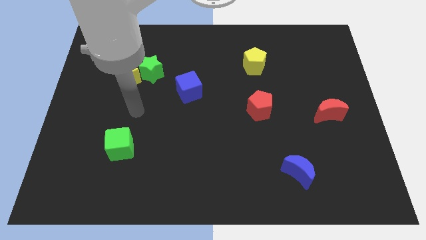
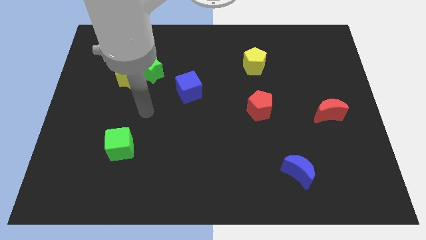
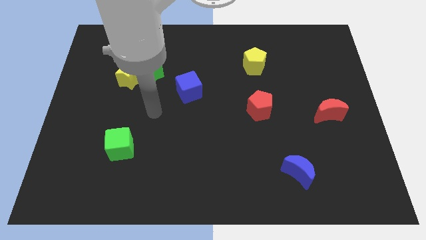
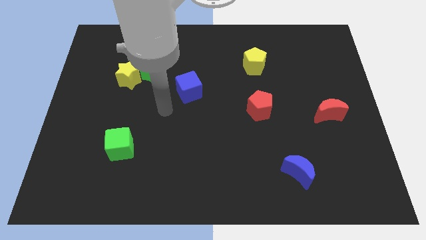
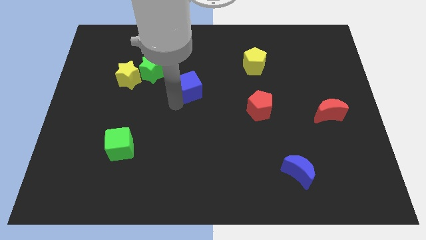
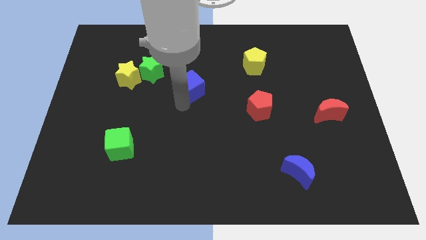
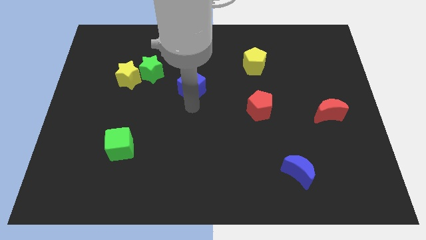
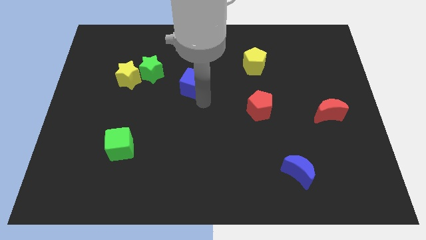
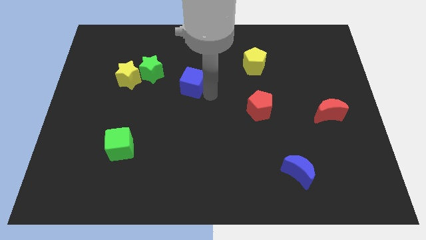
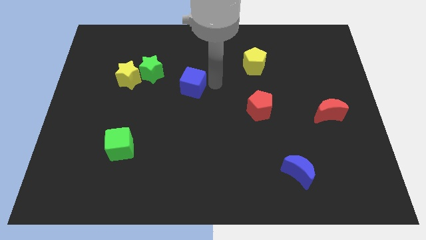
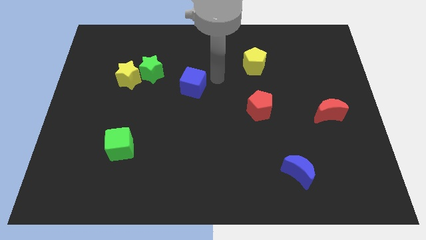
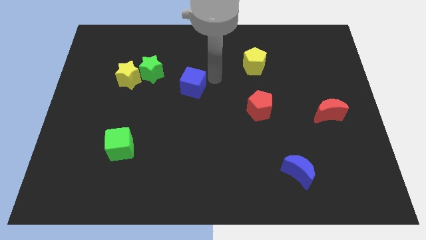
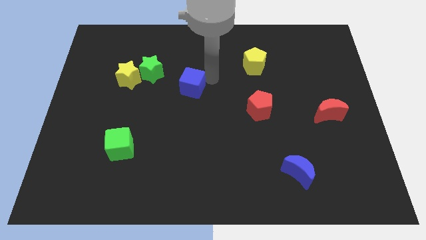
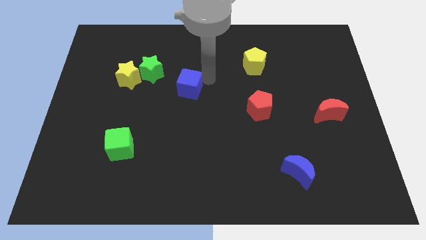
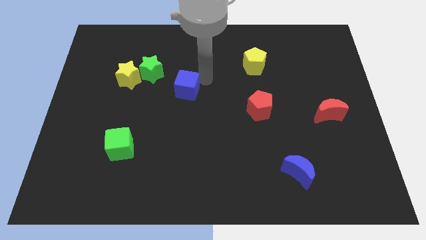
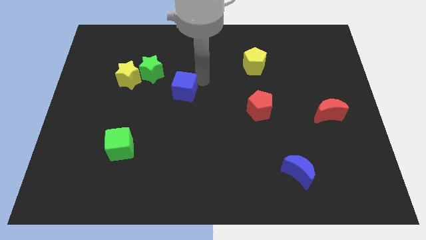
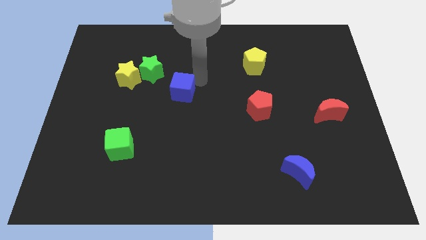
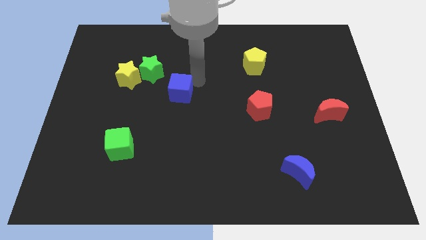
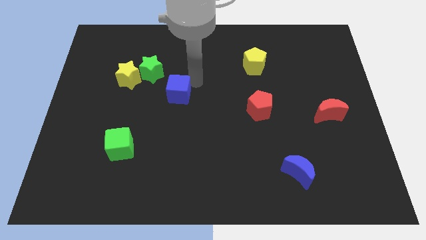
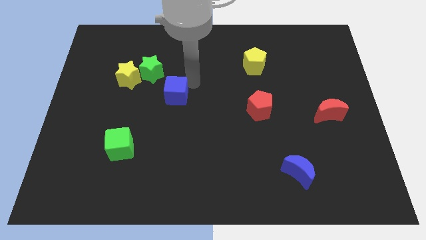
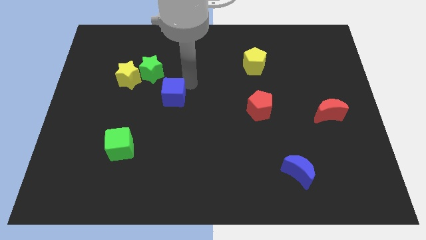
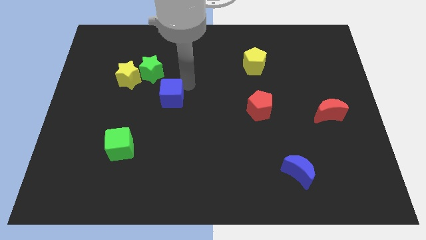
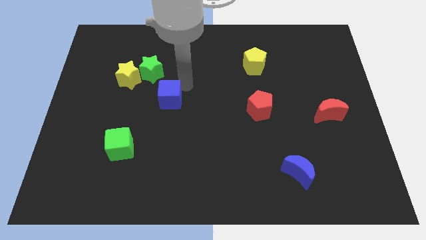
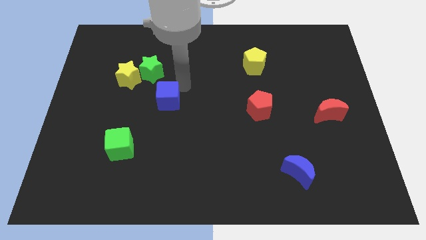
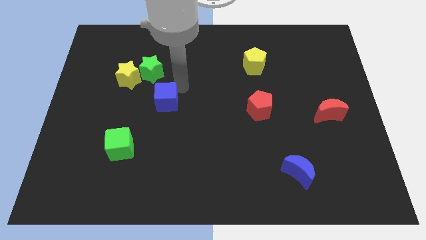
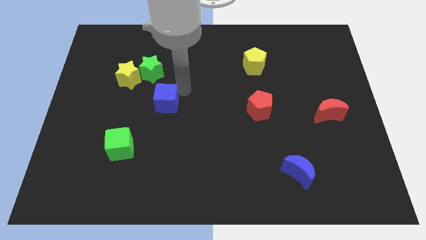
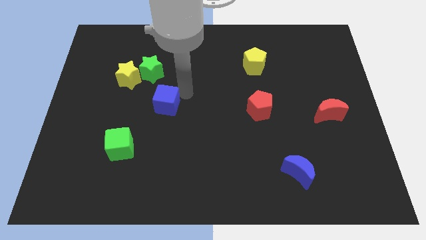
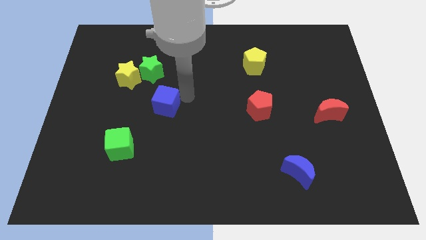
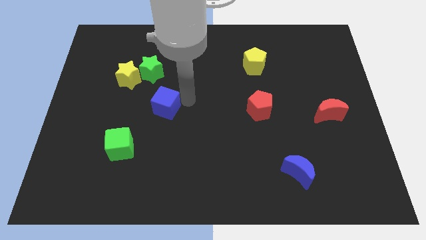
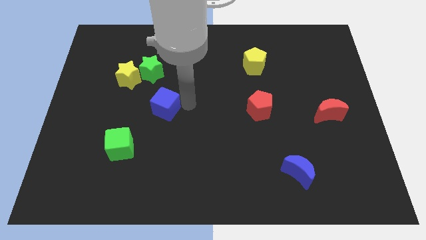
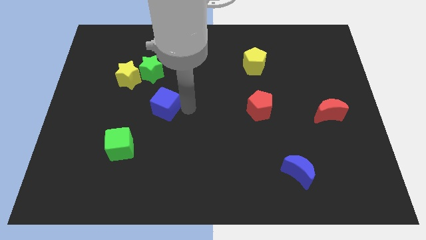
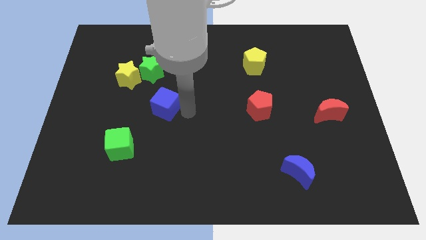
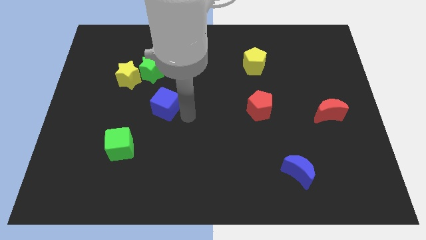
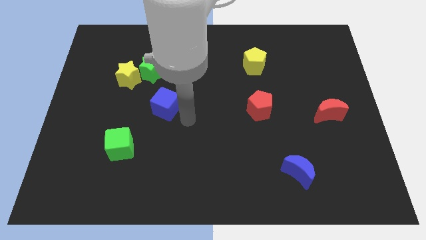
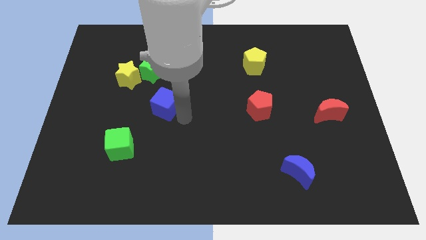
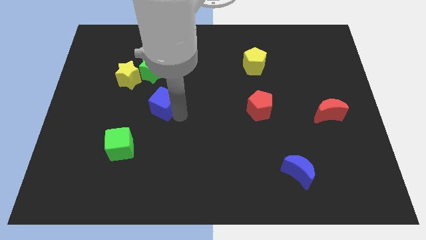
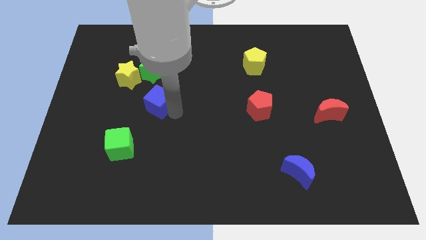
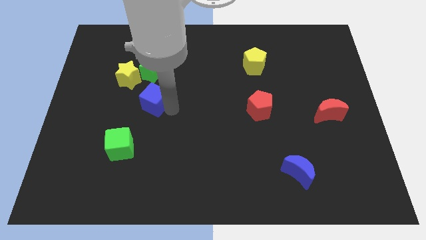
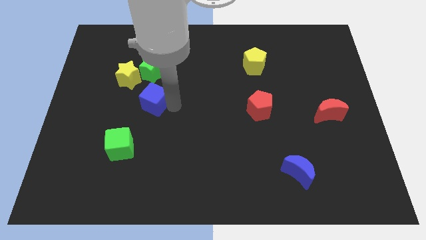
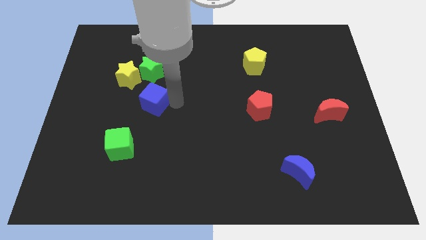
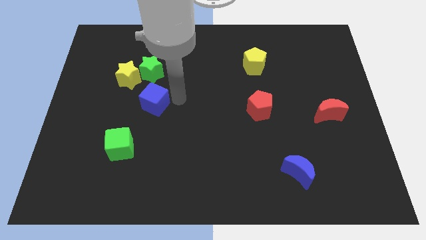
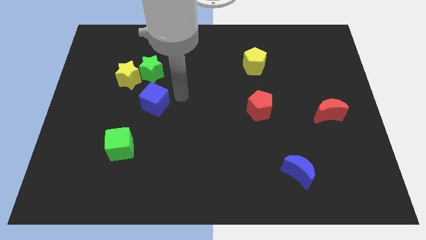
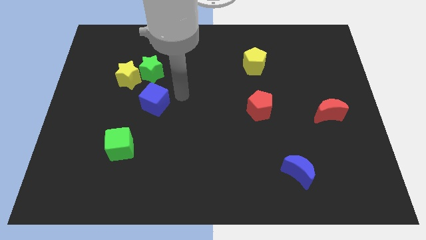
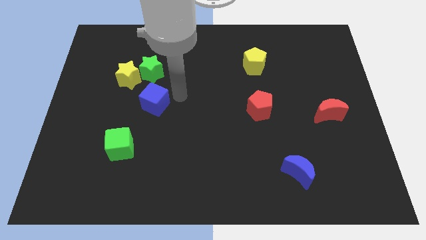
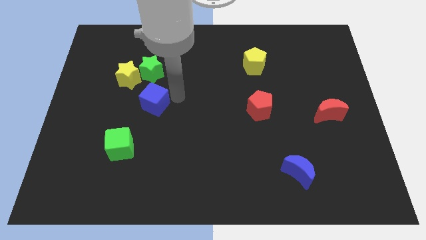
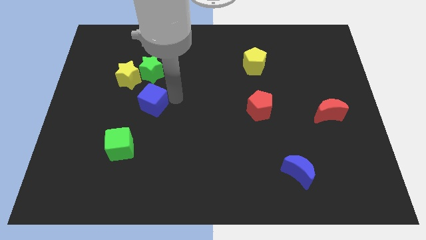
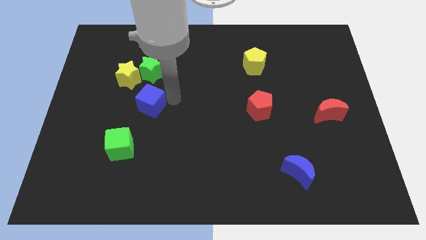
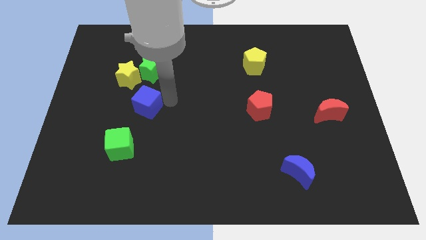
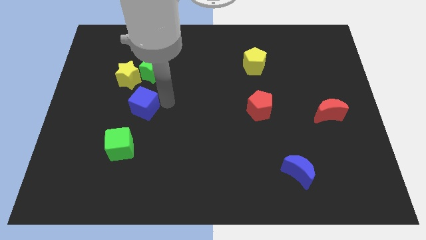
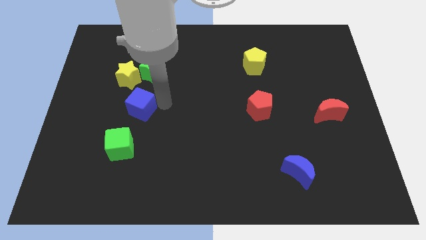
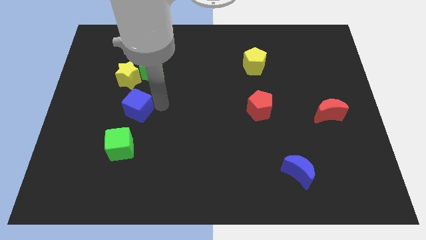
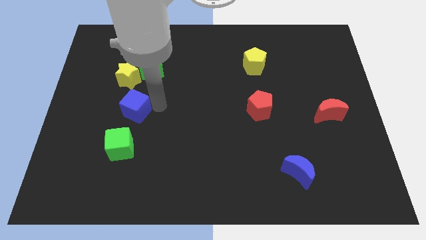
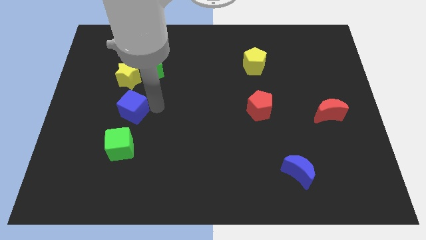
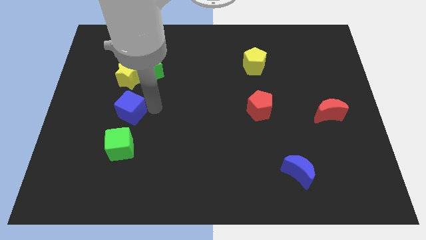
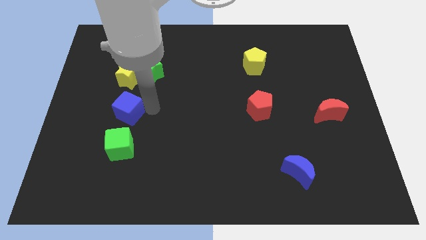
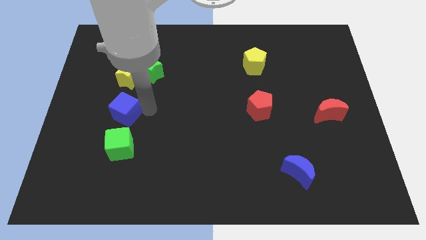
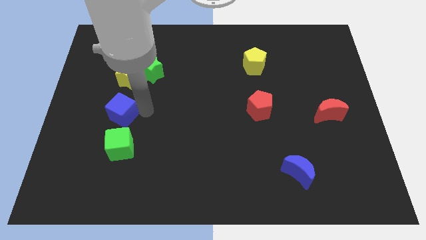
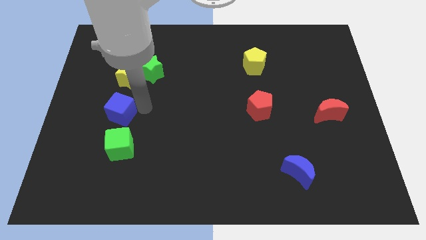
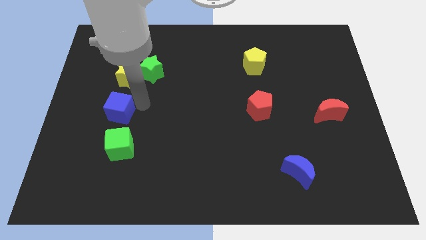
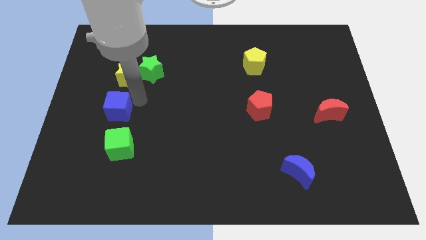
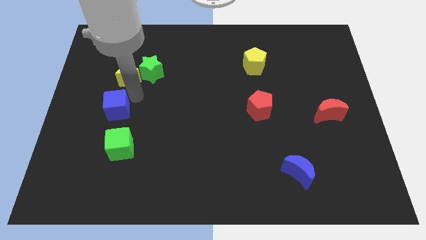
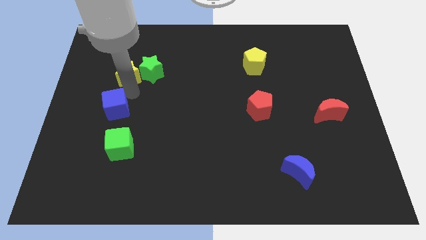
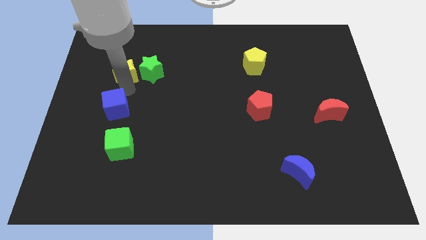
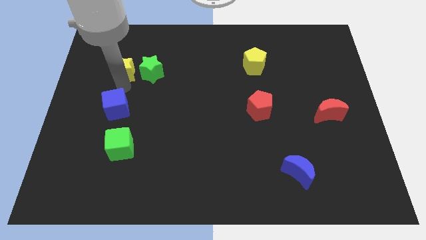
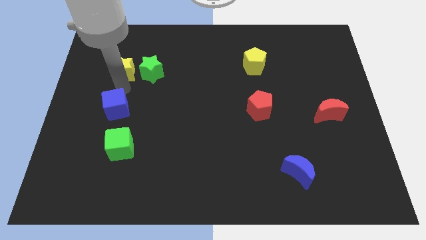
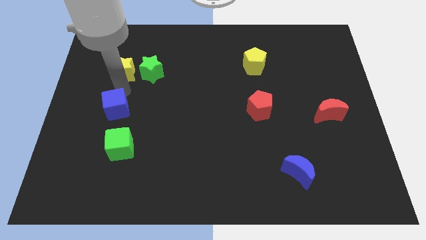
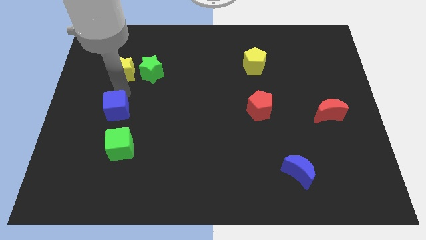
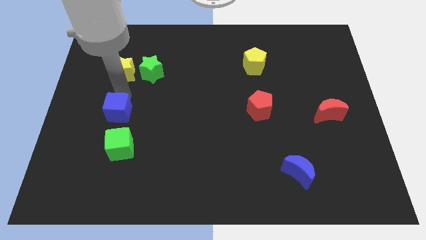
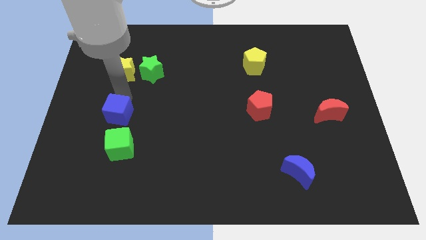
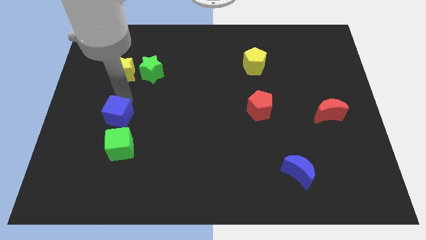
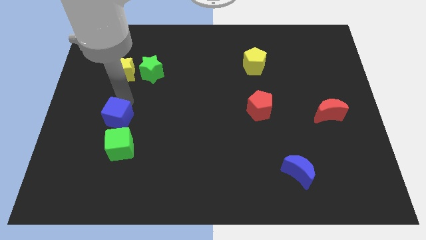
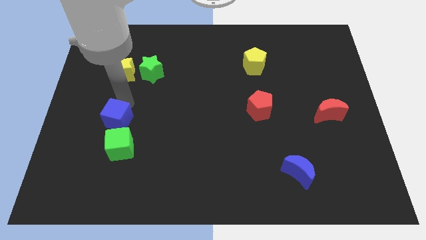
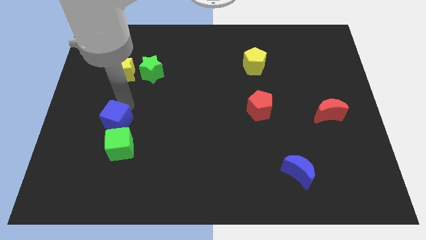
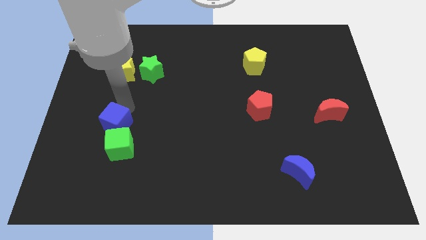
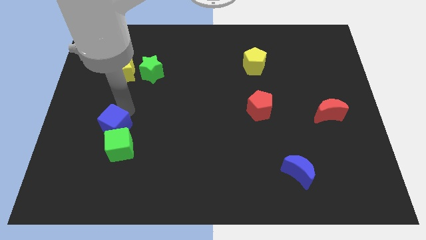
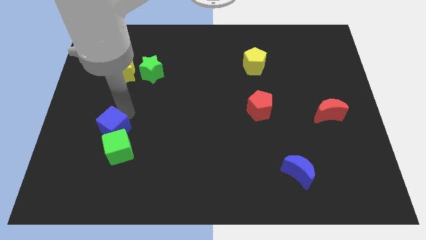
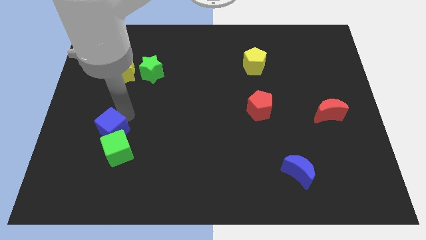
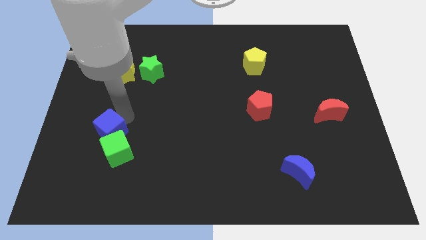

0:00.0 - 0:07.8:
move the blue cube down and then left

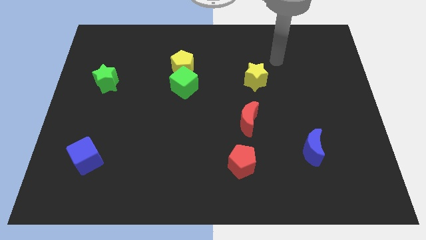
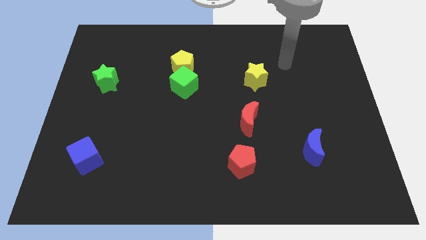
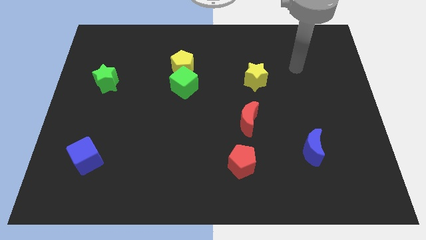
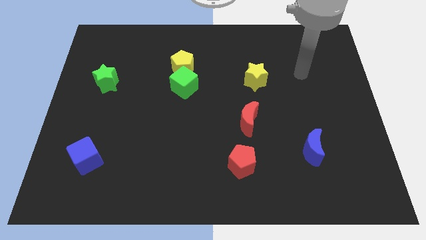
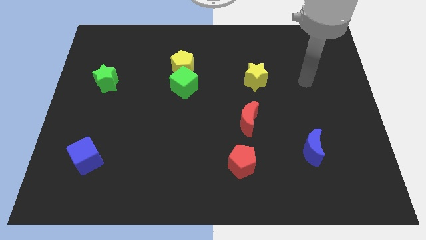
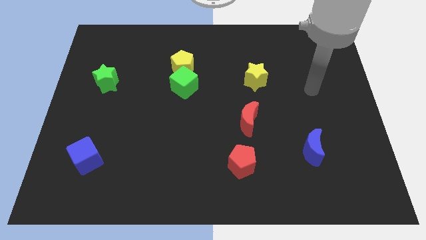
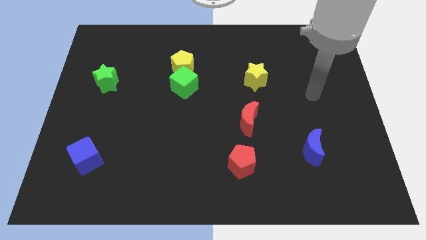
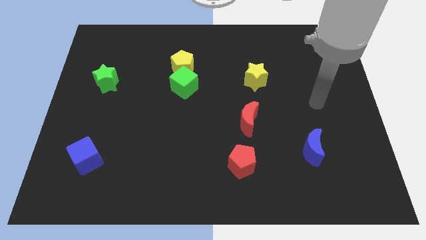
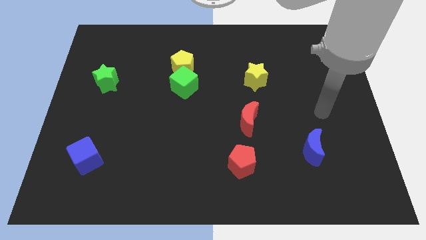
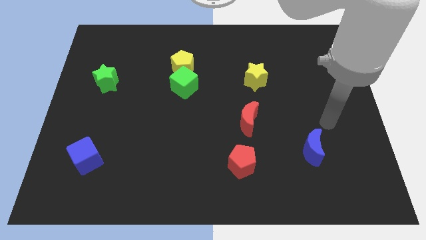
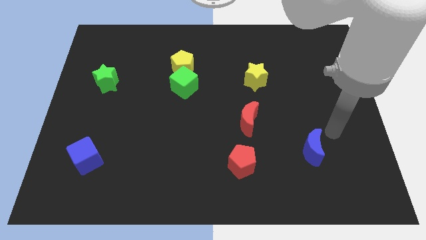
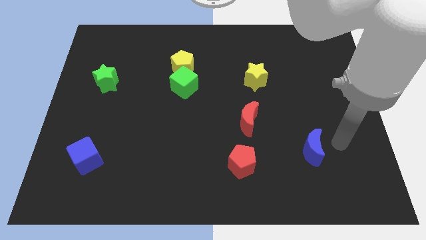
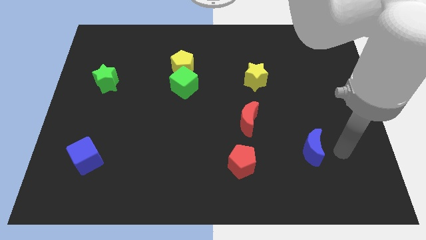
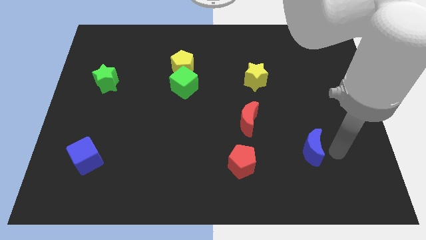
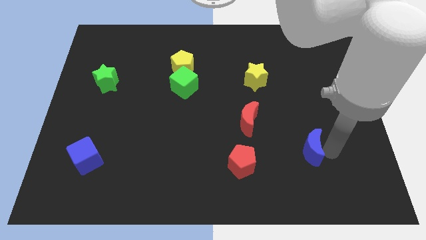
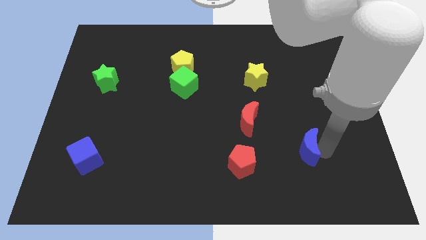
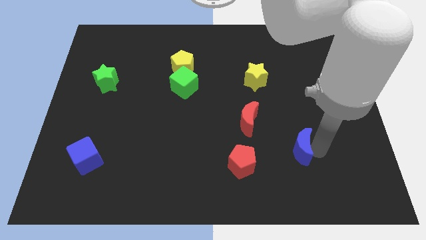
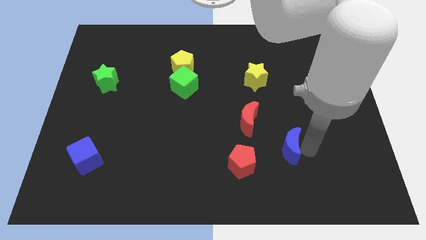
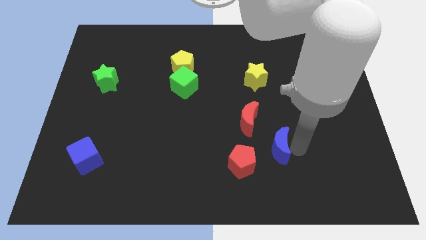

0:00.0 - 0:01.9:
push the blue moon a bit to the left
